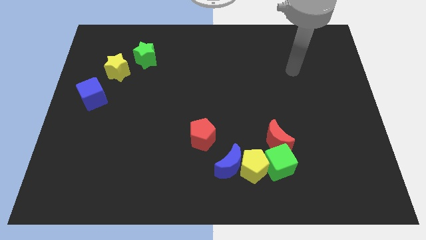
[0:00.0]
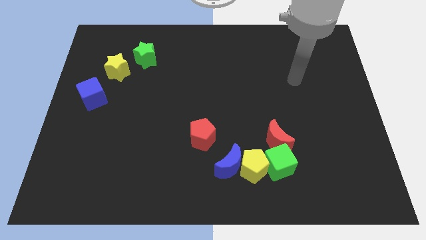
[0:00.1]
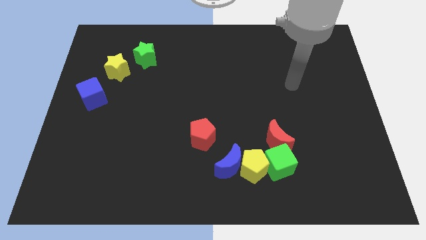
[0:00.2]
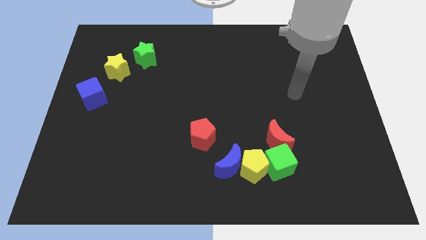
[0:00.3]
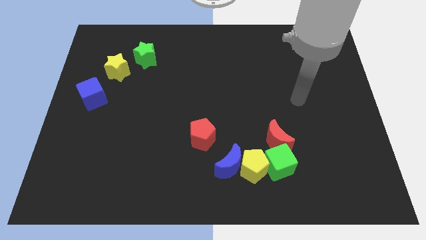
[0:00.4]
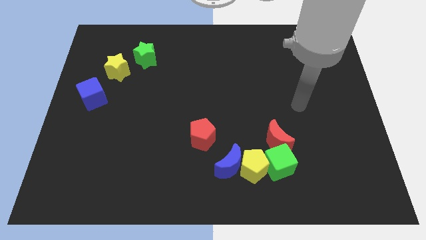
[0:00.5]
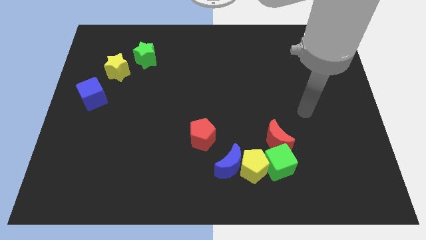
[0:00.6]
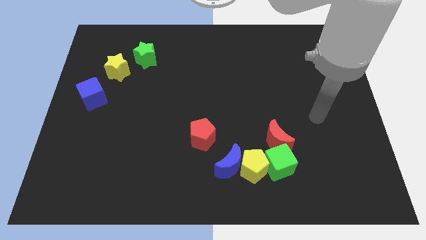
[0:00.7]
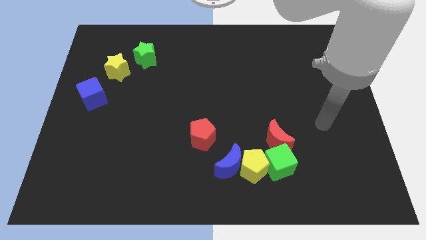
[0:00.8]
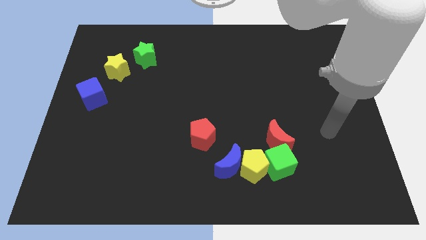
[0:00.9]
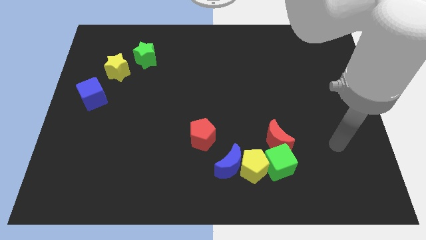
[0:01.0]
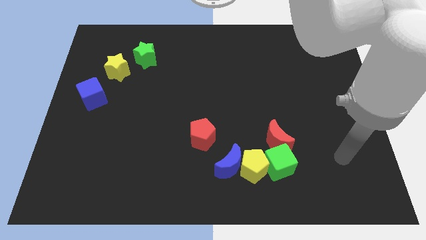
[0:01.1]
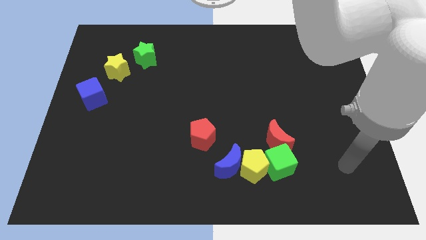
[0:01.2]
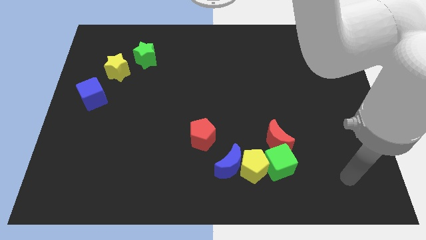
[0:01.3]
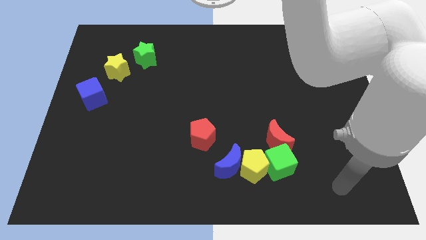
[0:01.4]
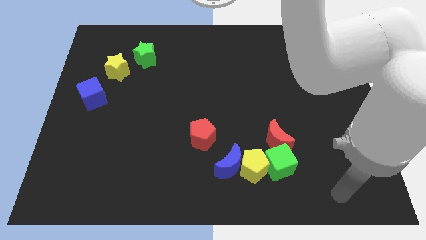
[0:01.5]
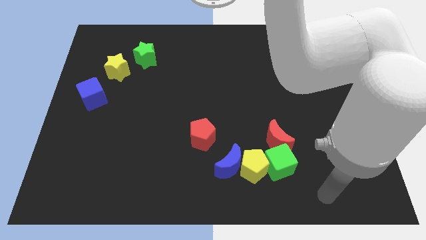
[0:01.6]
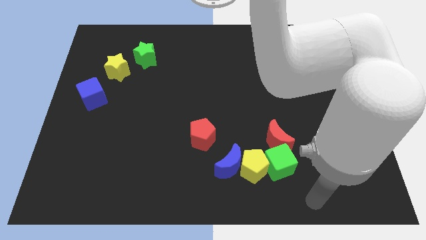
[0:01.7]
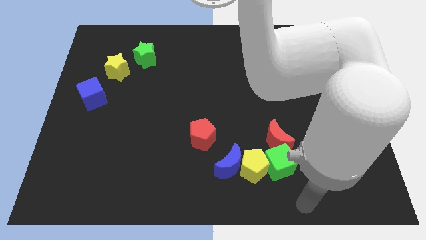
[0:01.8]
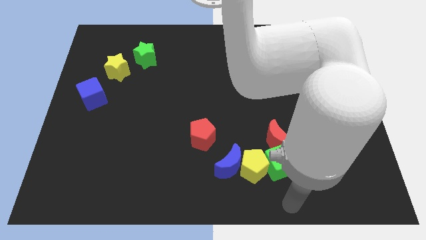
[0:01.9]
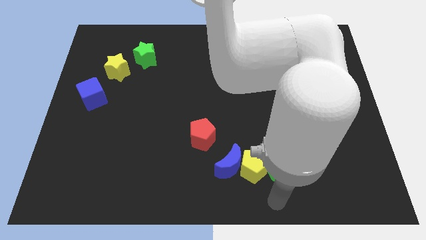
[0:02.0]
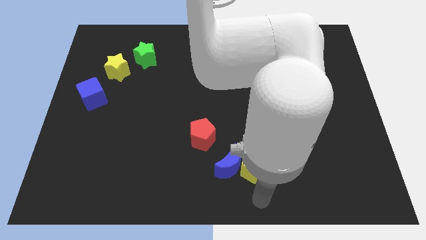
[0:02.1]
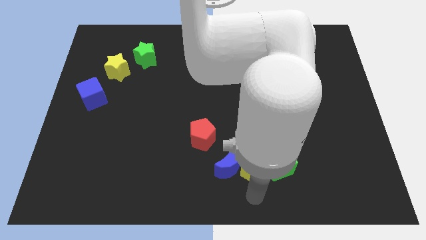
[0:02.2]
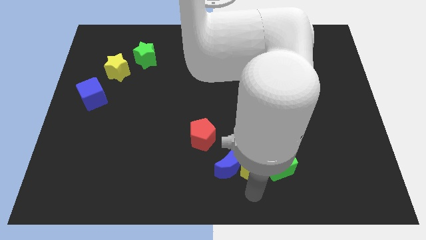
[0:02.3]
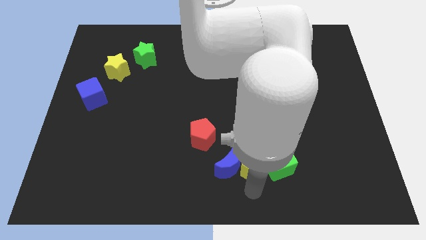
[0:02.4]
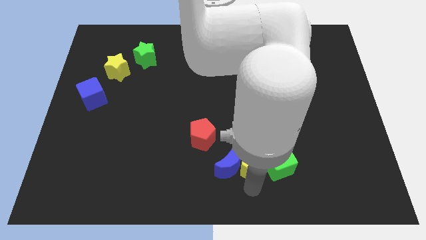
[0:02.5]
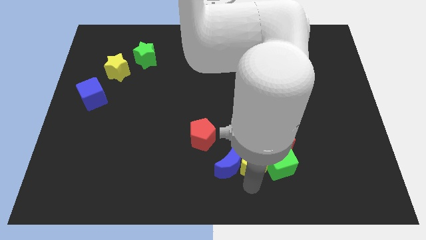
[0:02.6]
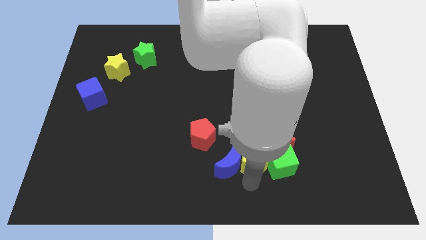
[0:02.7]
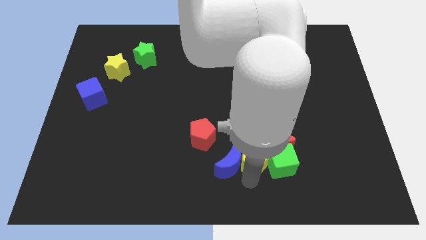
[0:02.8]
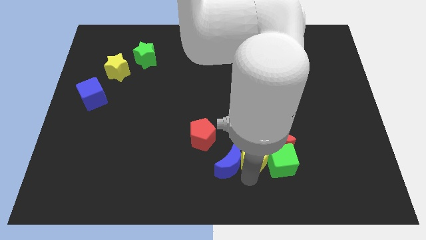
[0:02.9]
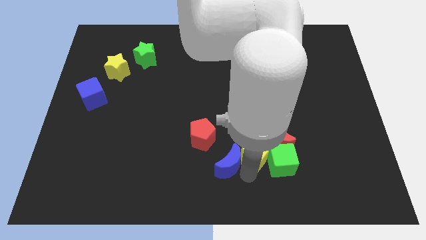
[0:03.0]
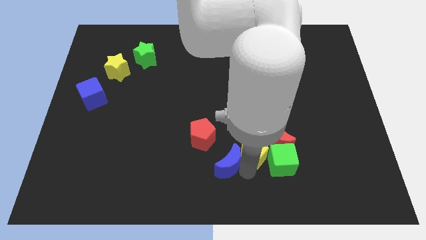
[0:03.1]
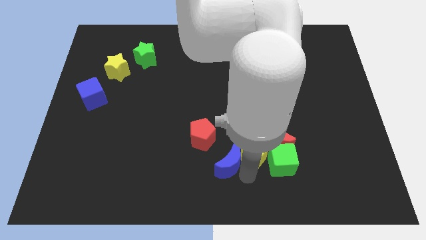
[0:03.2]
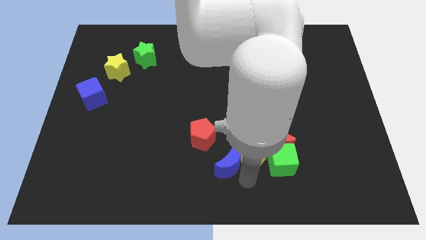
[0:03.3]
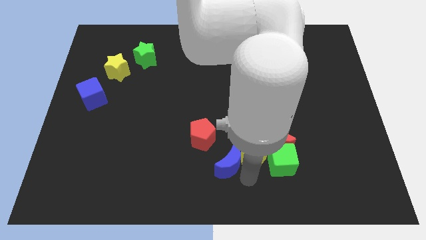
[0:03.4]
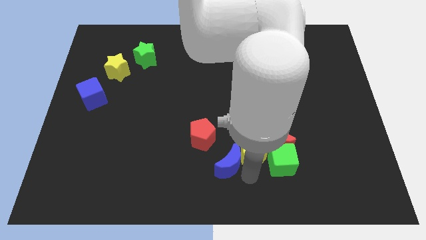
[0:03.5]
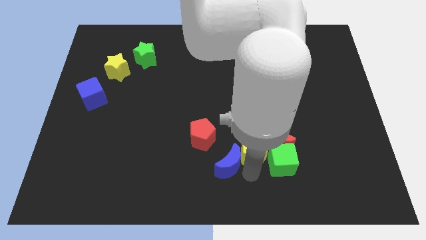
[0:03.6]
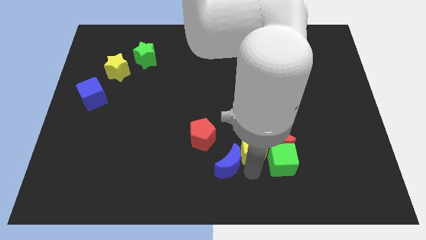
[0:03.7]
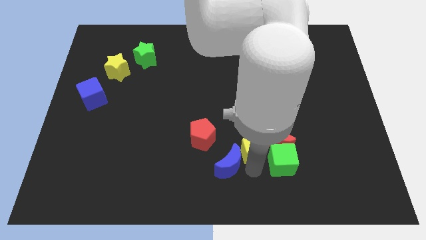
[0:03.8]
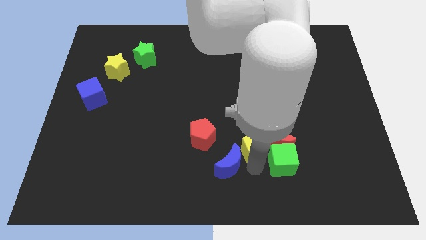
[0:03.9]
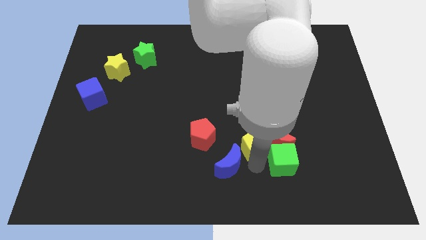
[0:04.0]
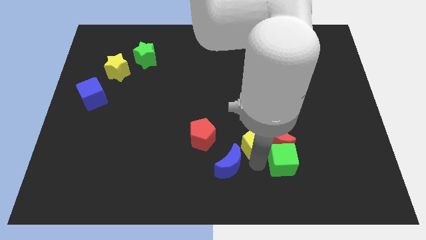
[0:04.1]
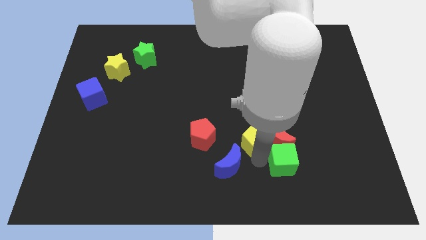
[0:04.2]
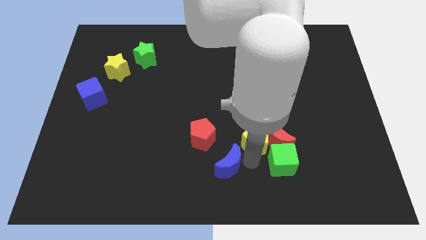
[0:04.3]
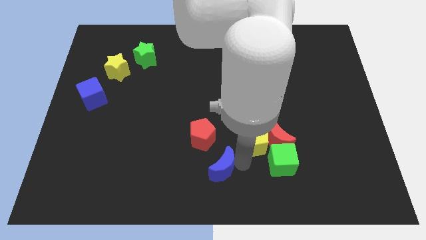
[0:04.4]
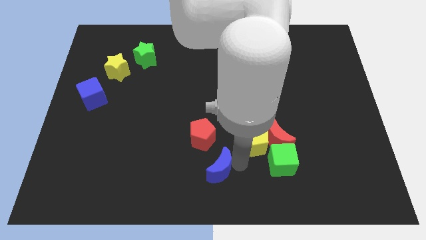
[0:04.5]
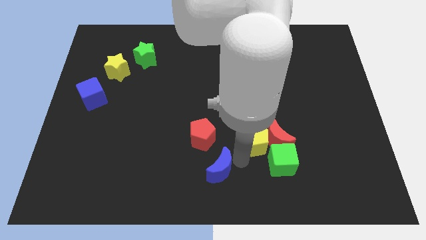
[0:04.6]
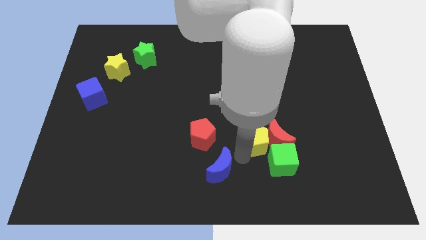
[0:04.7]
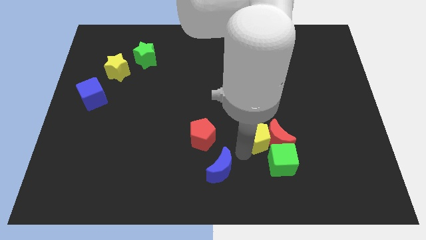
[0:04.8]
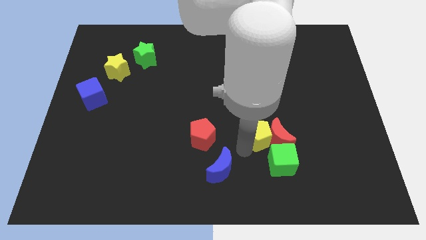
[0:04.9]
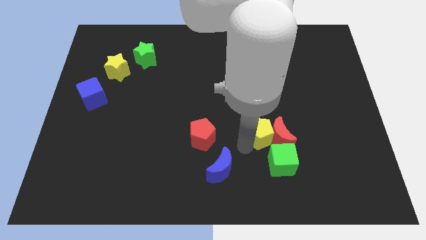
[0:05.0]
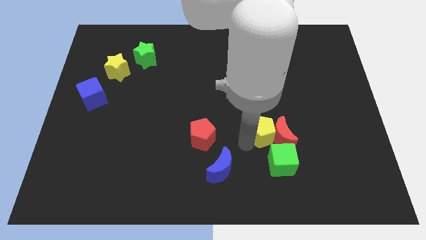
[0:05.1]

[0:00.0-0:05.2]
slightly move the yellow pentagon up and then to the right

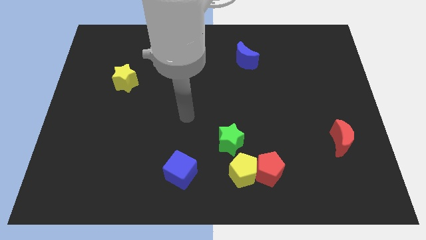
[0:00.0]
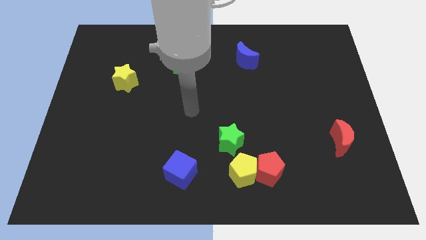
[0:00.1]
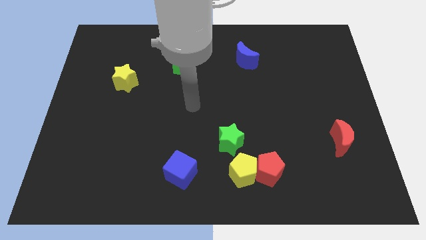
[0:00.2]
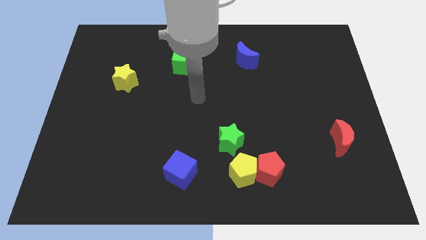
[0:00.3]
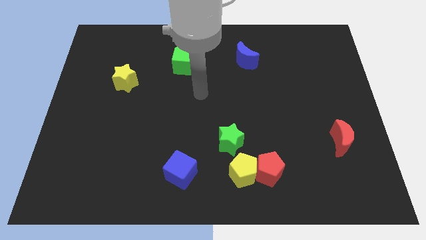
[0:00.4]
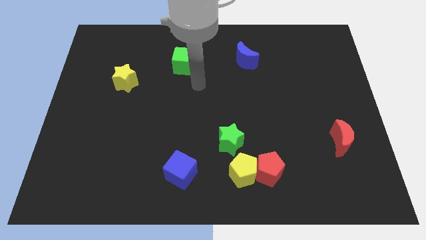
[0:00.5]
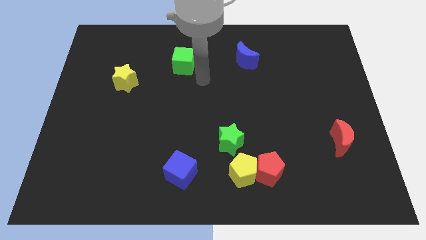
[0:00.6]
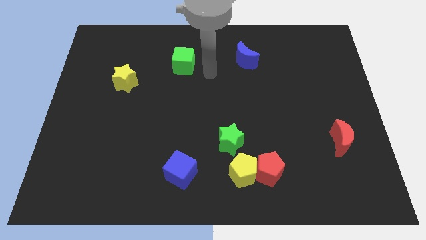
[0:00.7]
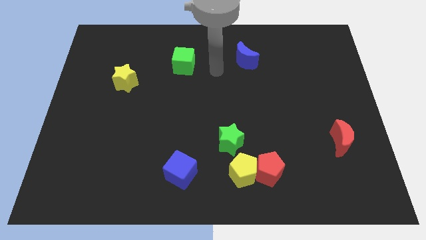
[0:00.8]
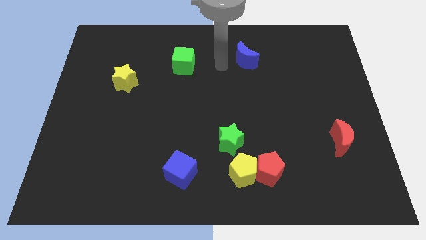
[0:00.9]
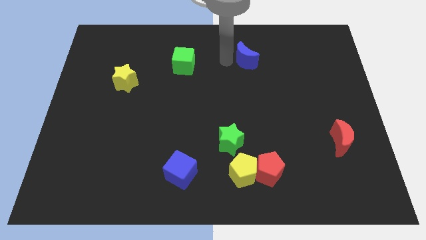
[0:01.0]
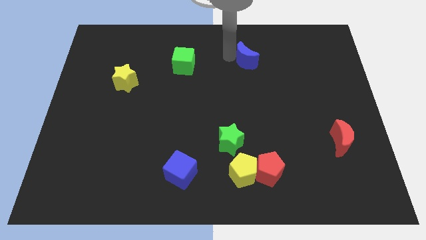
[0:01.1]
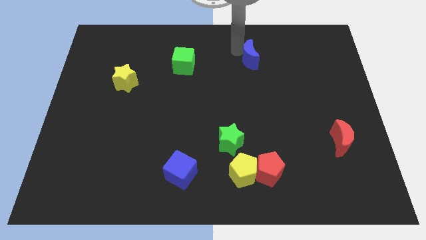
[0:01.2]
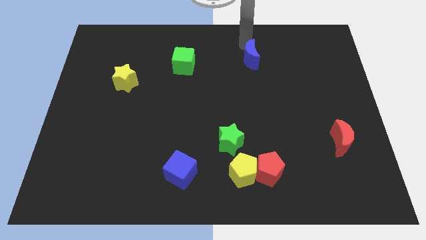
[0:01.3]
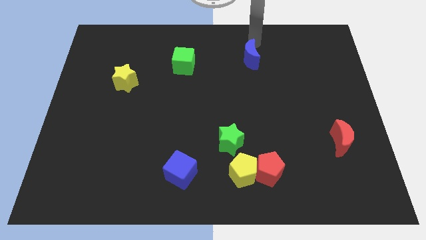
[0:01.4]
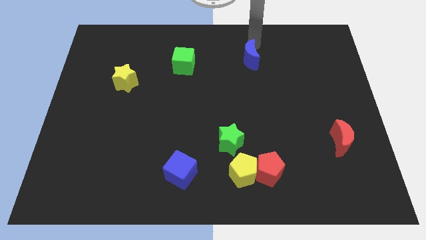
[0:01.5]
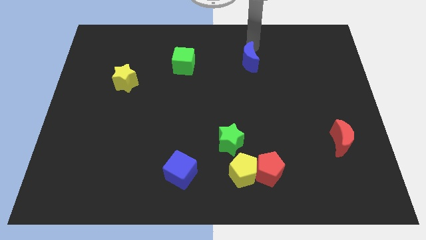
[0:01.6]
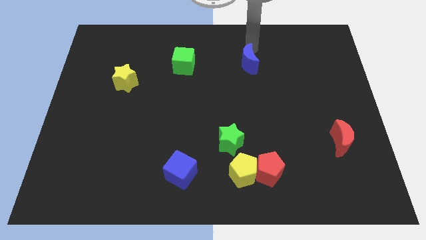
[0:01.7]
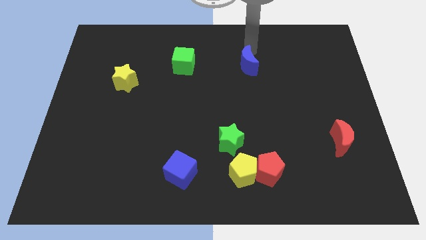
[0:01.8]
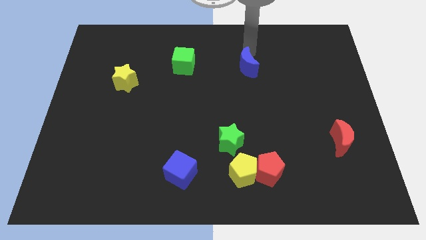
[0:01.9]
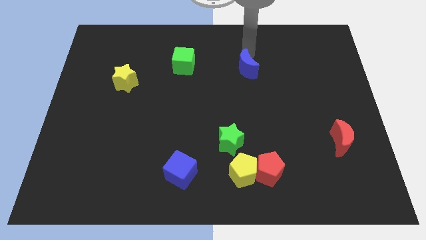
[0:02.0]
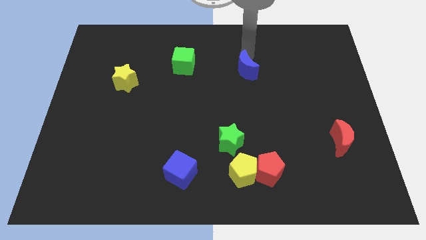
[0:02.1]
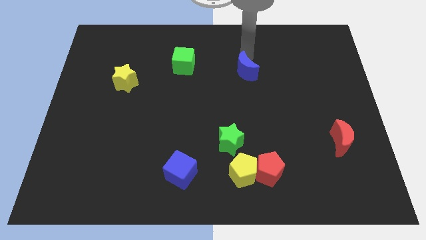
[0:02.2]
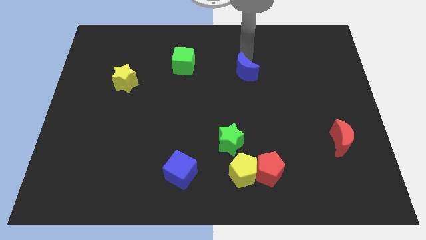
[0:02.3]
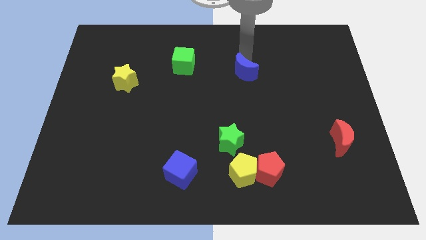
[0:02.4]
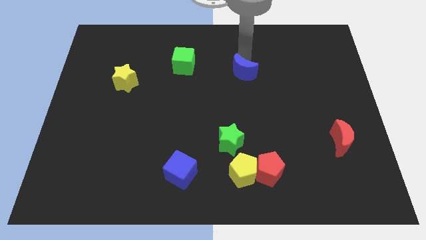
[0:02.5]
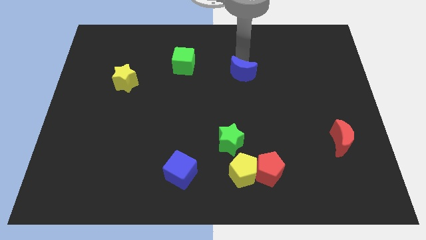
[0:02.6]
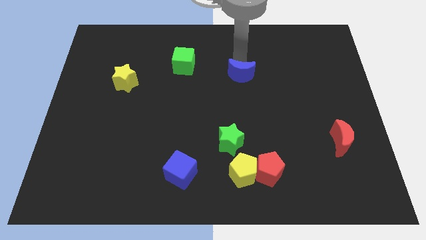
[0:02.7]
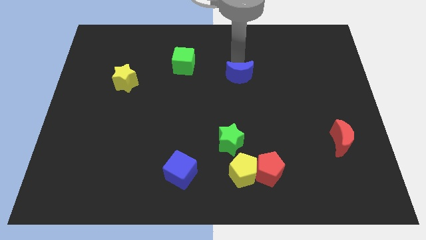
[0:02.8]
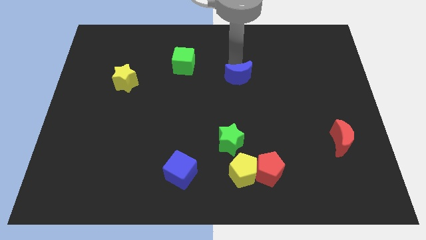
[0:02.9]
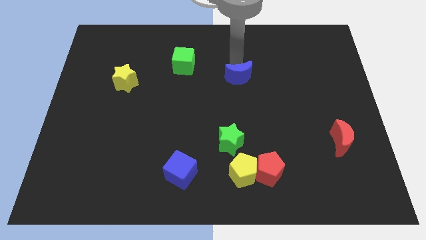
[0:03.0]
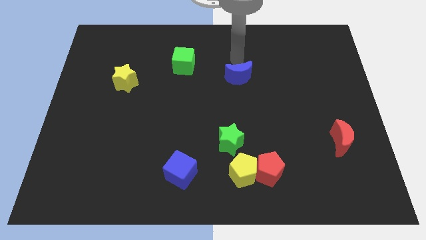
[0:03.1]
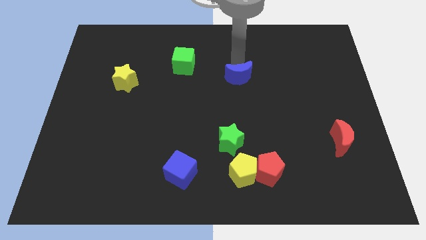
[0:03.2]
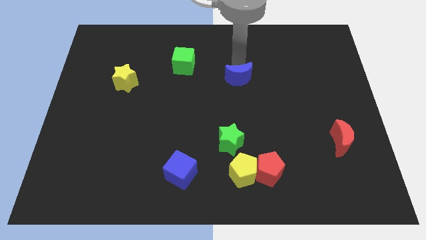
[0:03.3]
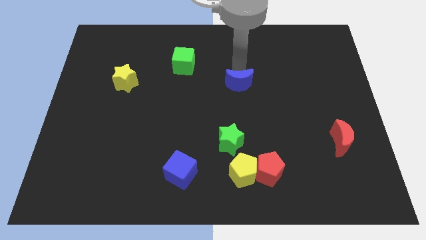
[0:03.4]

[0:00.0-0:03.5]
slide the blue moon slightly downwards
